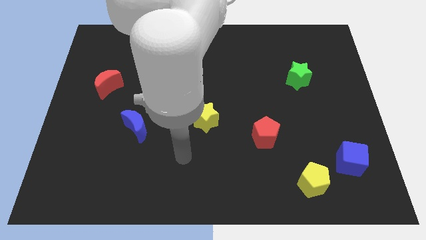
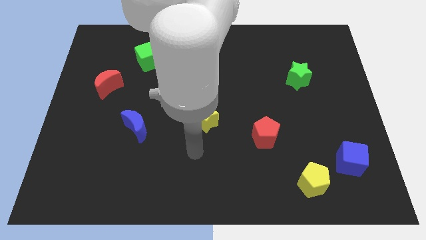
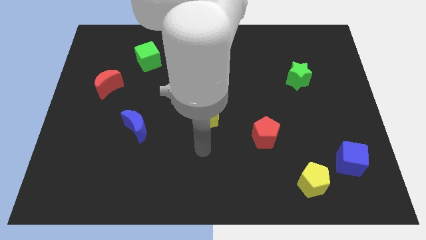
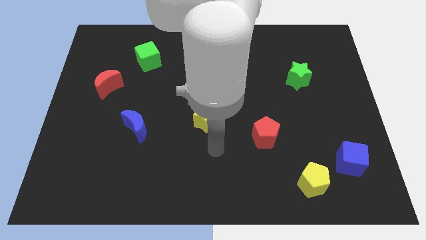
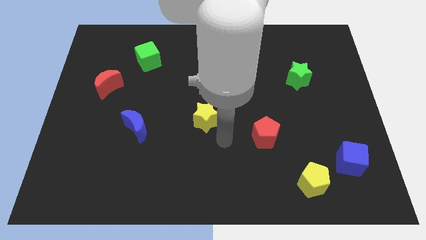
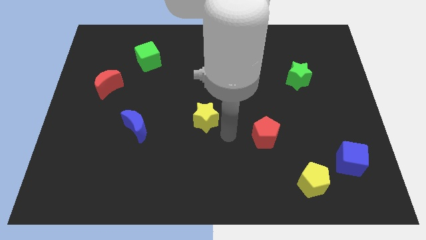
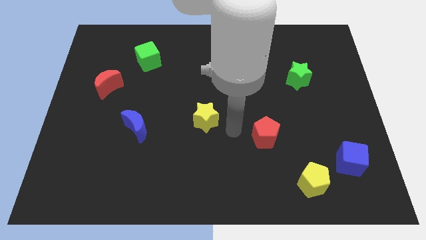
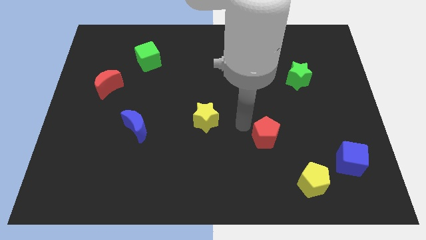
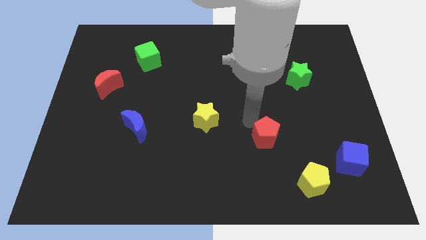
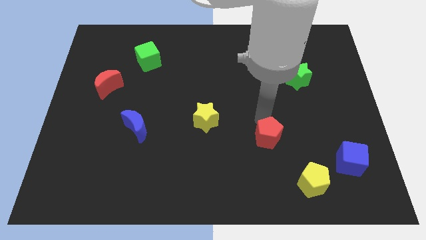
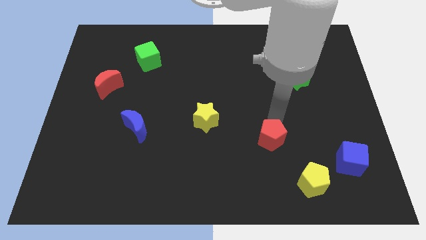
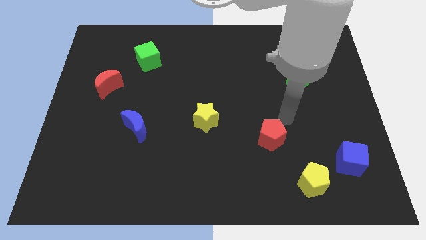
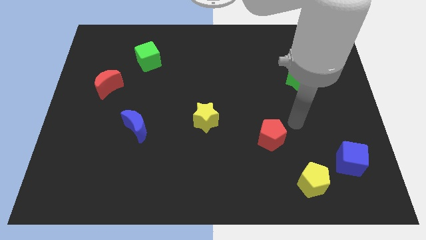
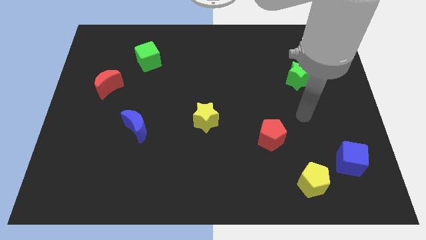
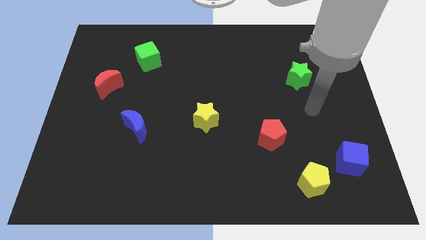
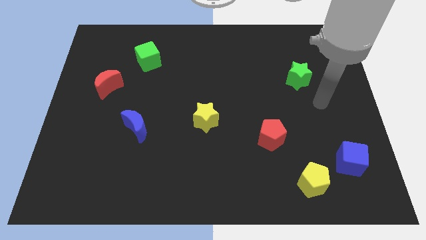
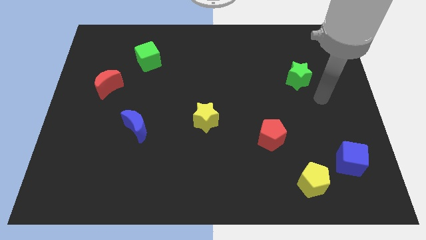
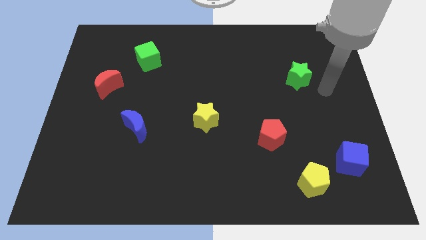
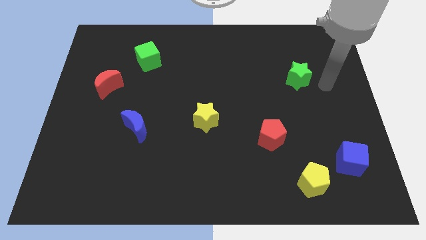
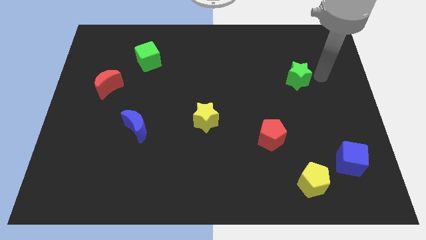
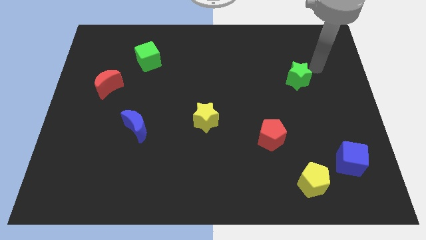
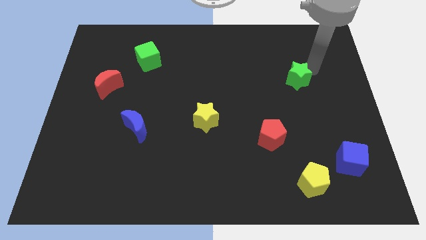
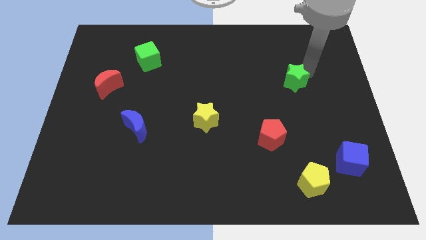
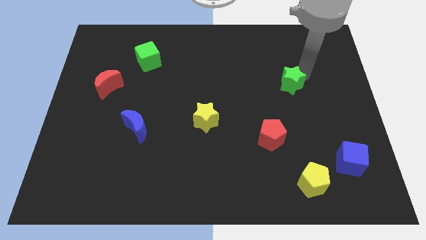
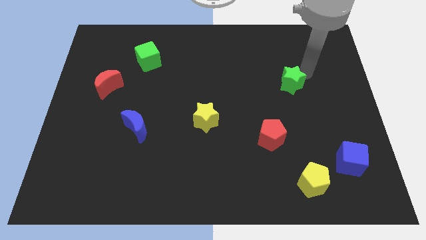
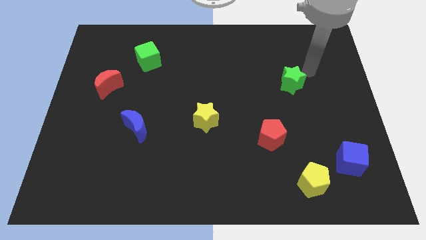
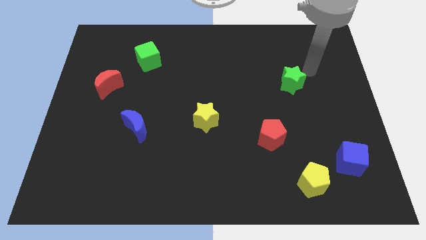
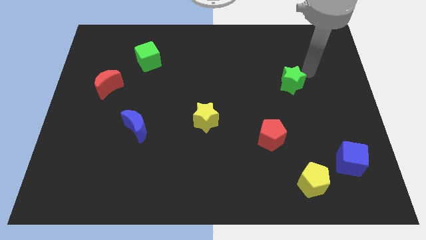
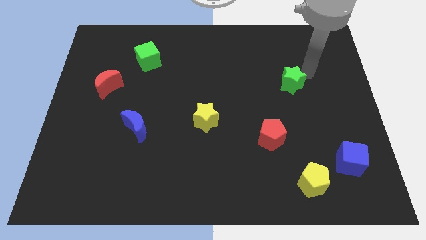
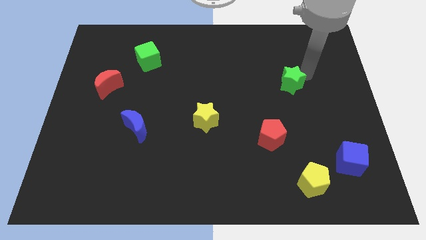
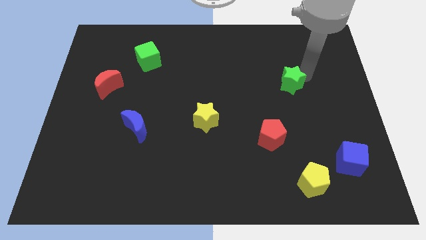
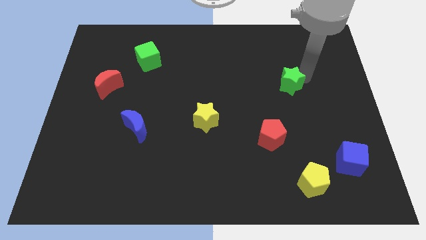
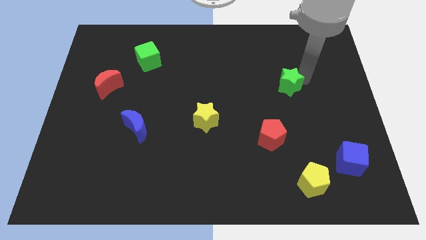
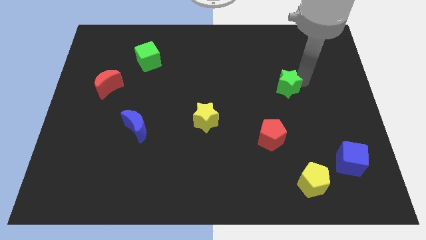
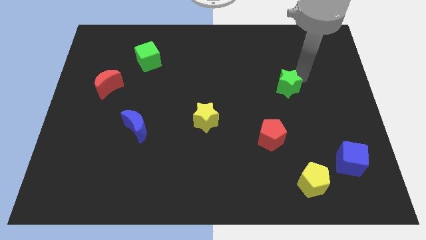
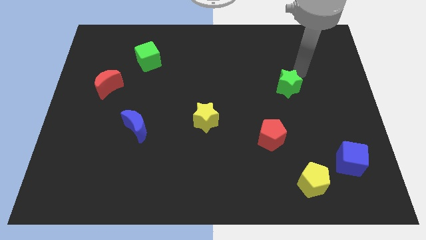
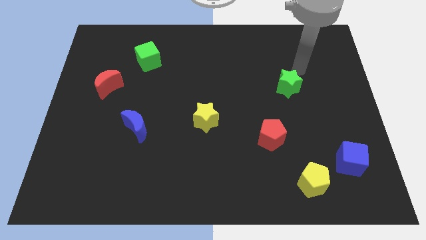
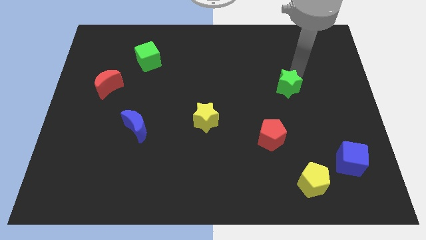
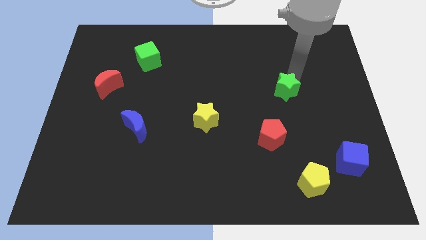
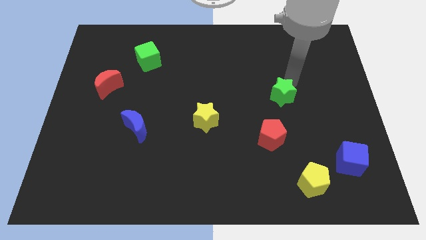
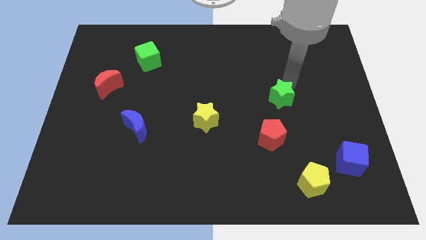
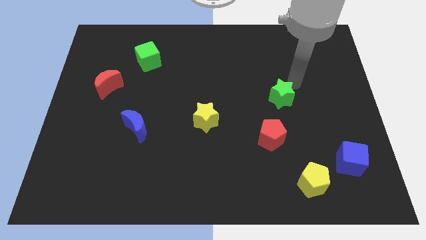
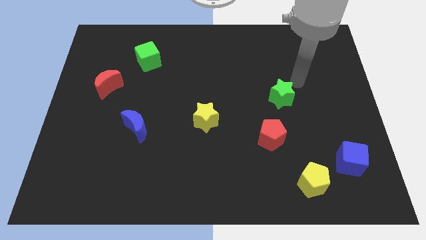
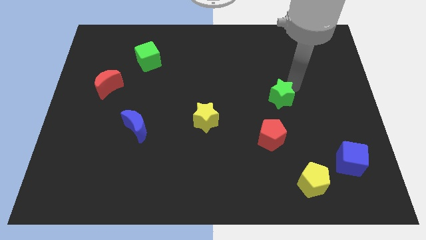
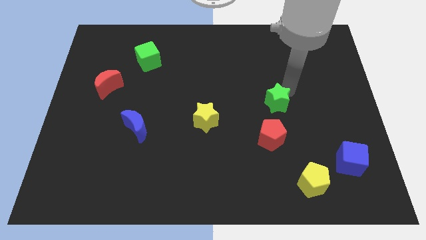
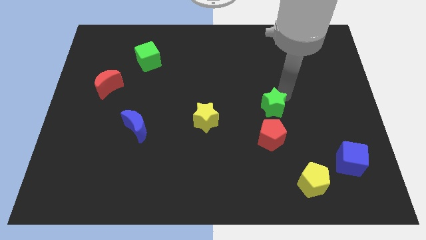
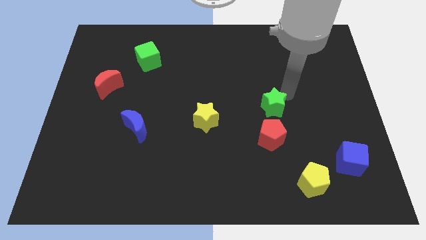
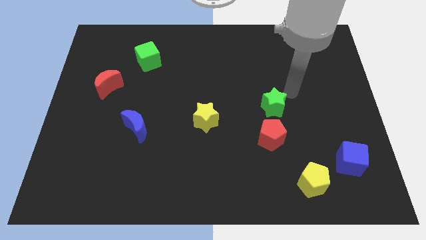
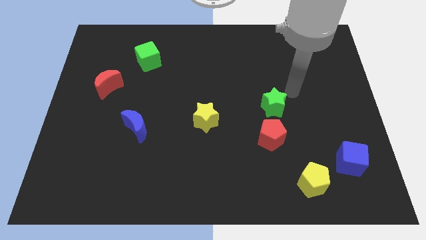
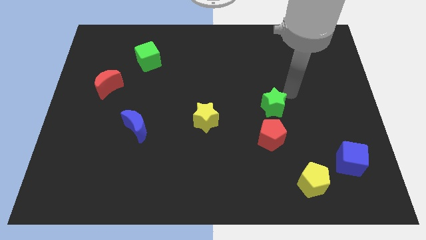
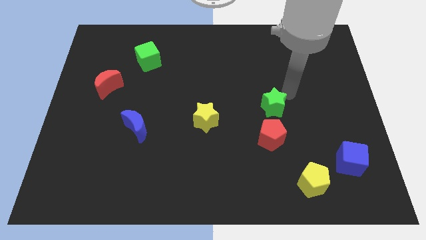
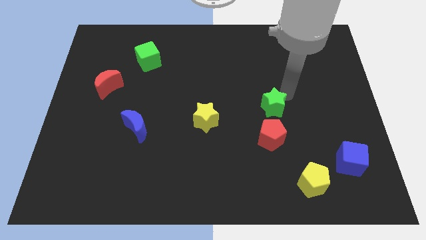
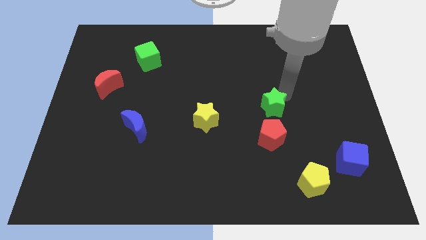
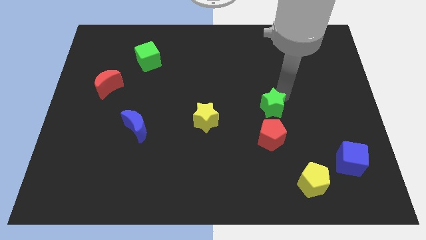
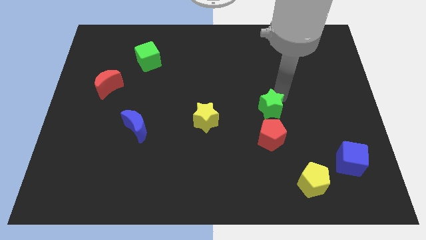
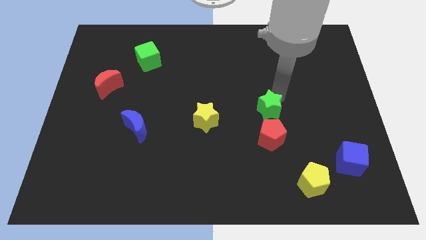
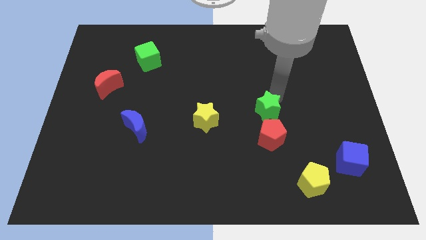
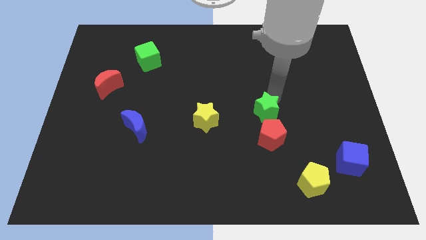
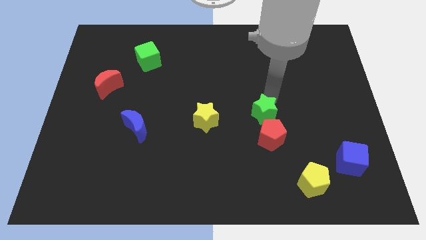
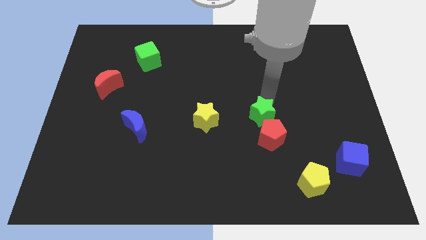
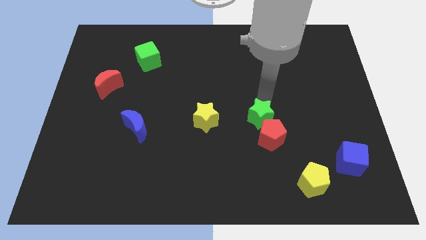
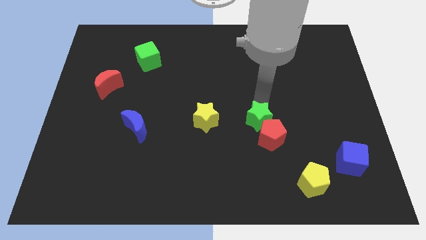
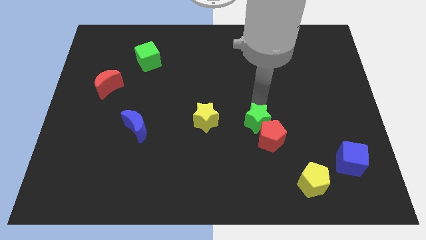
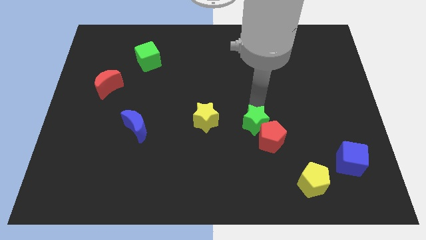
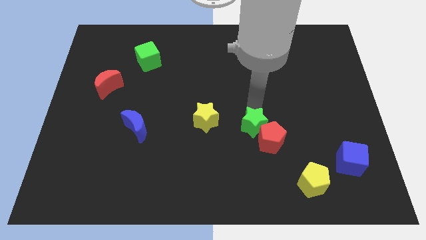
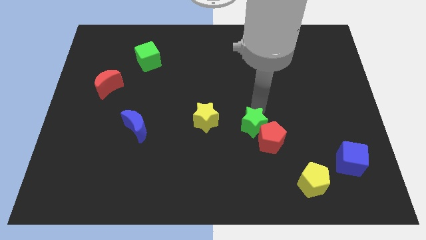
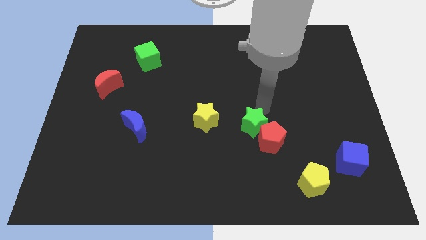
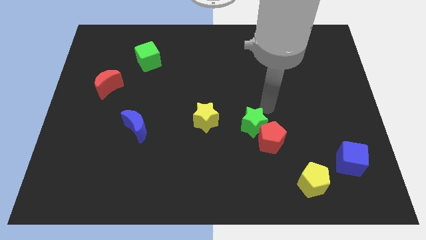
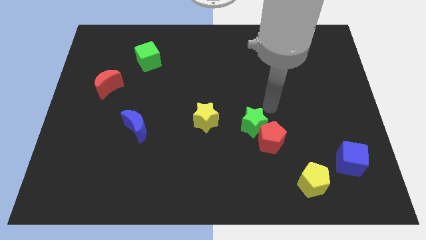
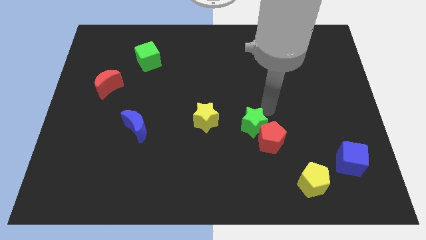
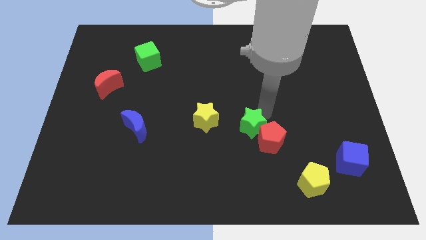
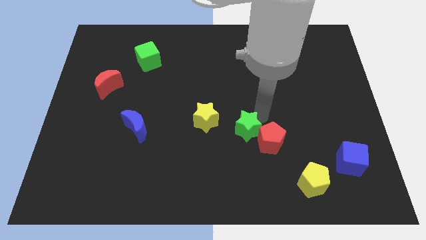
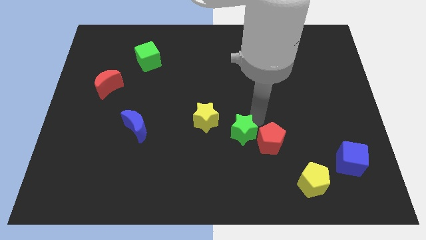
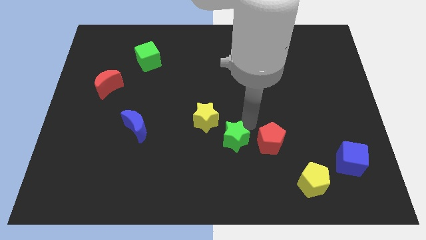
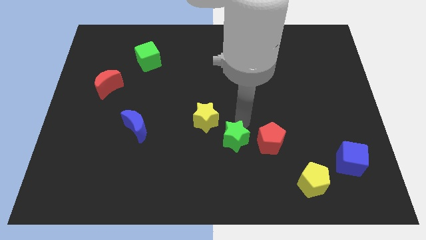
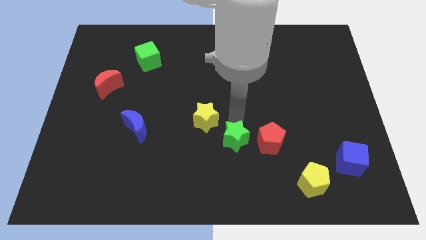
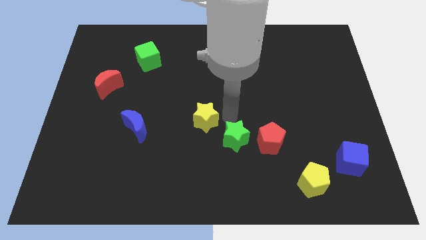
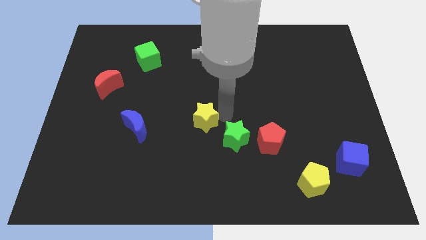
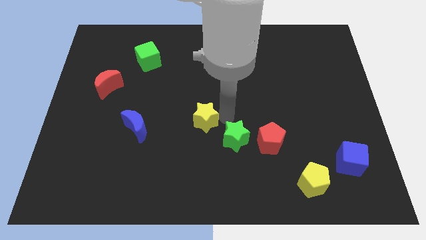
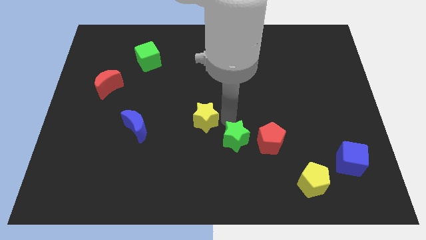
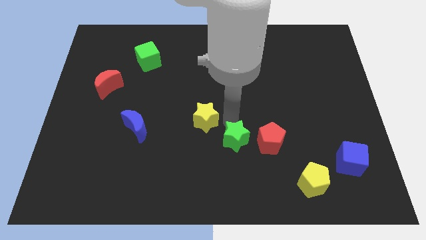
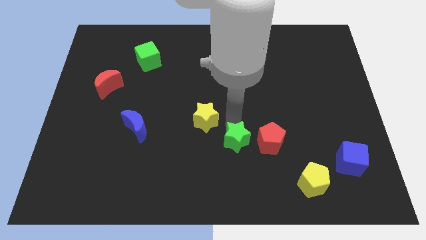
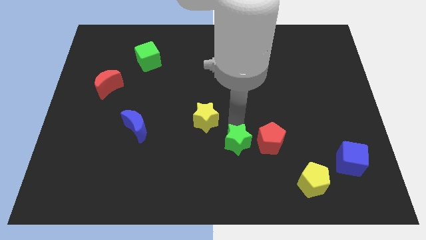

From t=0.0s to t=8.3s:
push the green star to the bottom left of the red pentagon
